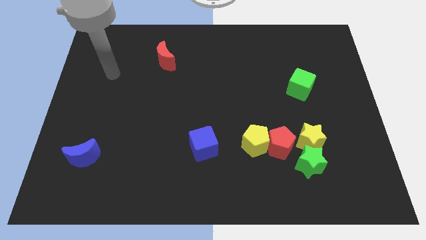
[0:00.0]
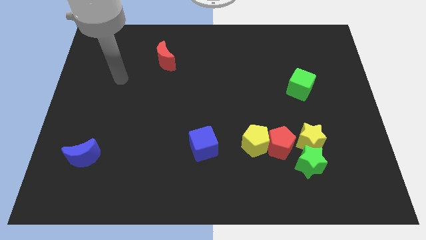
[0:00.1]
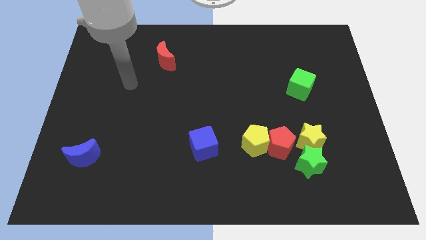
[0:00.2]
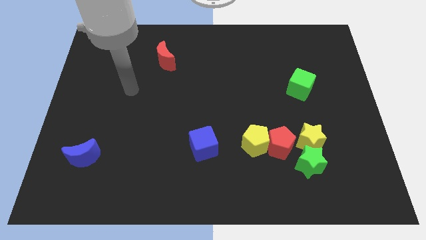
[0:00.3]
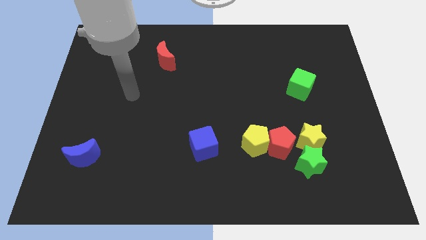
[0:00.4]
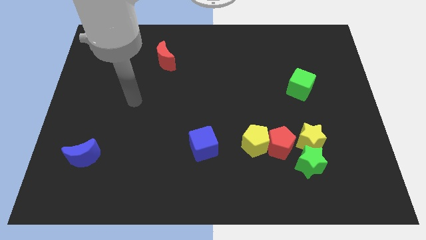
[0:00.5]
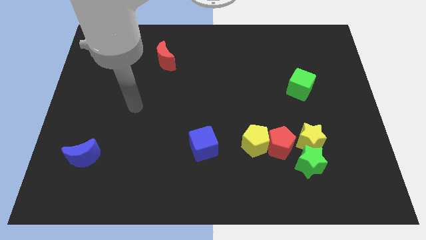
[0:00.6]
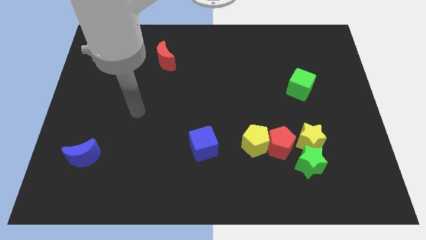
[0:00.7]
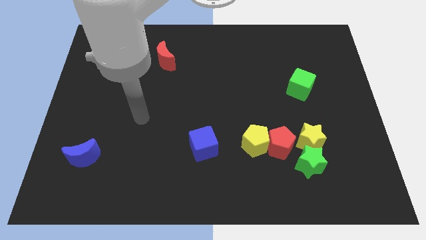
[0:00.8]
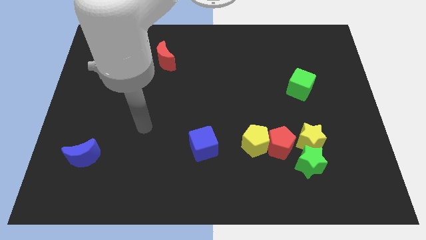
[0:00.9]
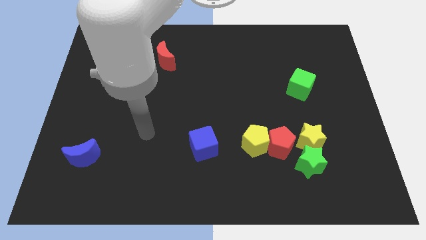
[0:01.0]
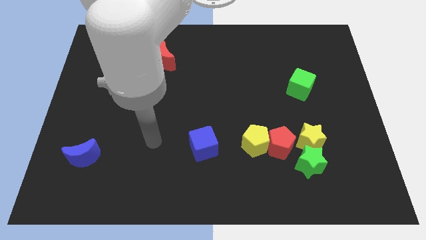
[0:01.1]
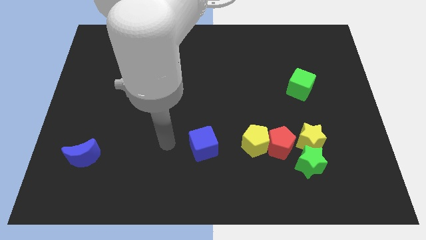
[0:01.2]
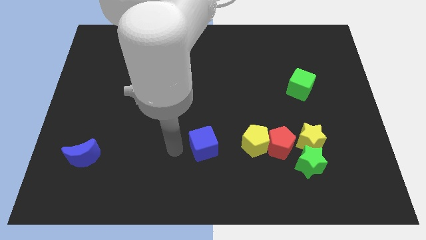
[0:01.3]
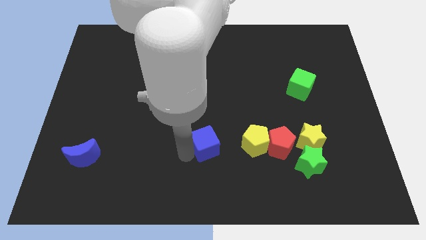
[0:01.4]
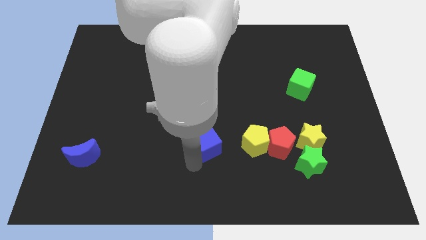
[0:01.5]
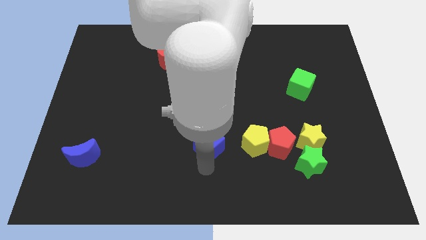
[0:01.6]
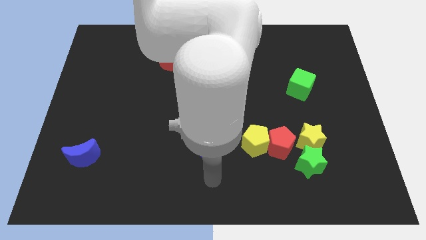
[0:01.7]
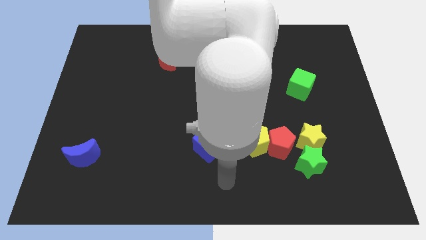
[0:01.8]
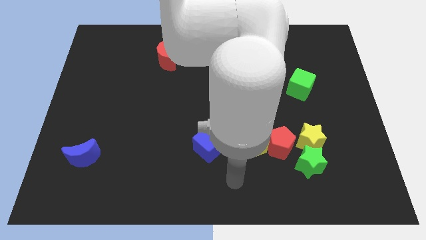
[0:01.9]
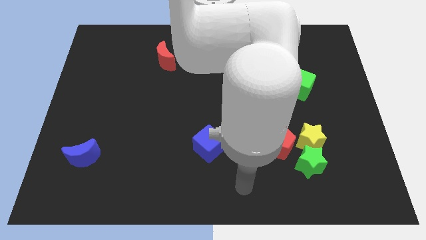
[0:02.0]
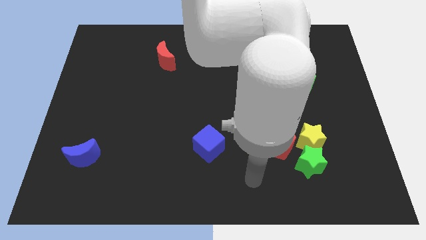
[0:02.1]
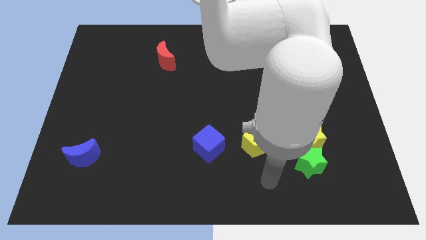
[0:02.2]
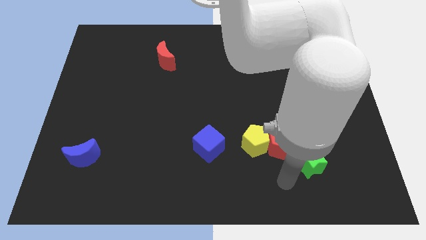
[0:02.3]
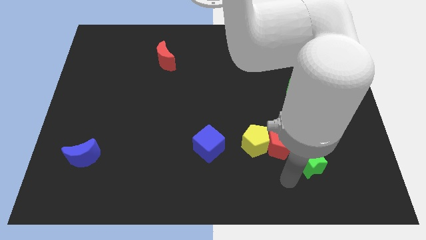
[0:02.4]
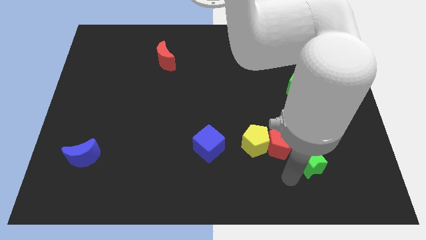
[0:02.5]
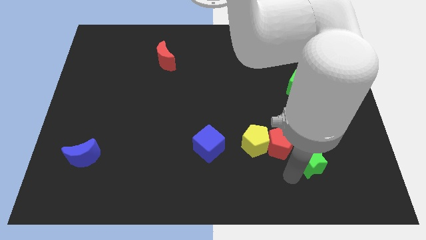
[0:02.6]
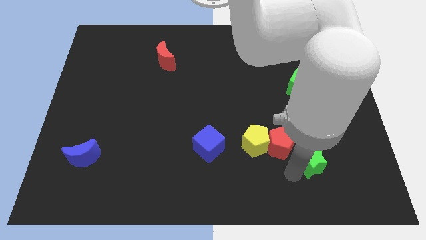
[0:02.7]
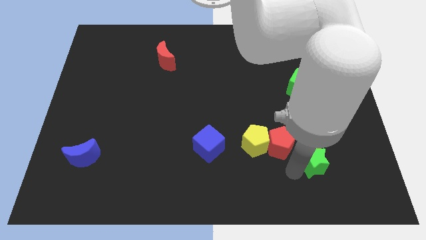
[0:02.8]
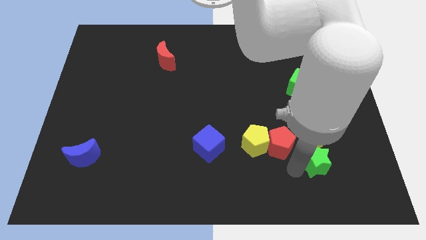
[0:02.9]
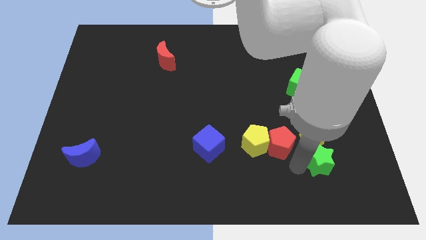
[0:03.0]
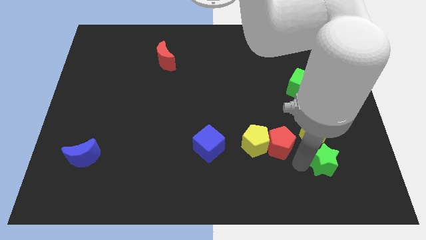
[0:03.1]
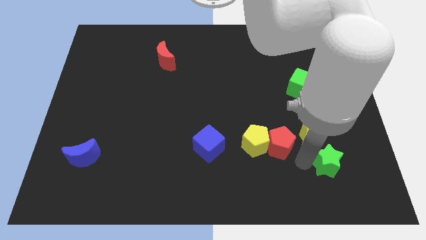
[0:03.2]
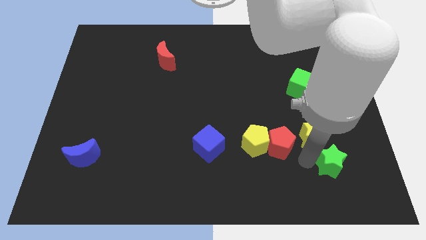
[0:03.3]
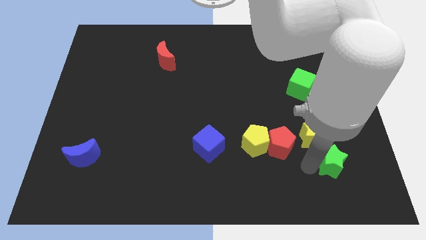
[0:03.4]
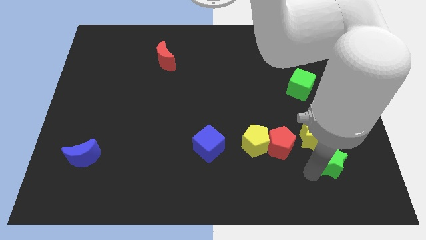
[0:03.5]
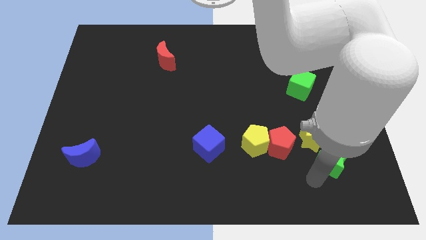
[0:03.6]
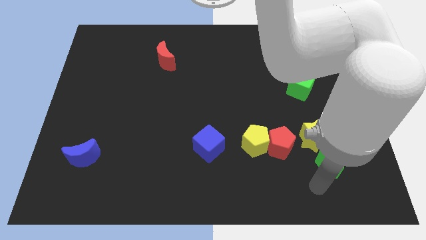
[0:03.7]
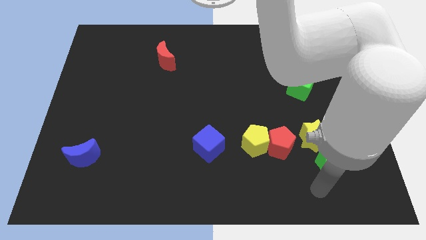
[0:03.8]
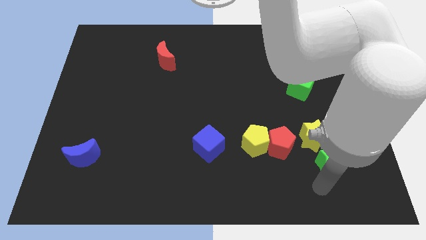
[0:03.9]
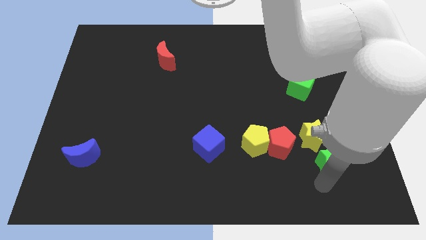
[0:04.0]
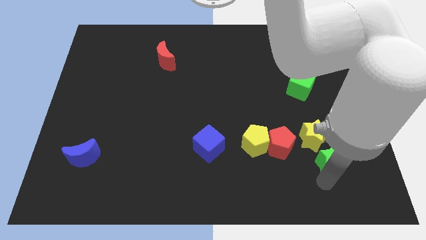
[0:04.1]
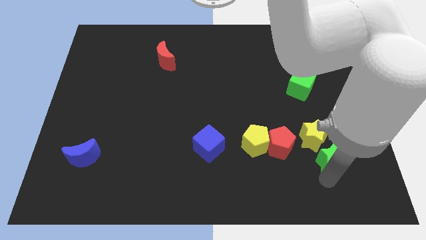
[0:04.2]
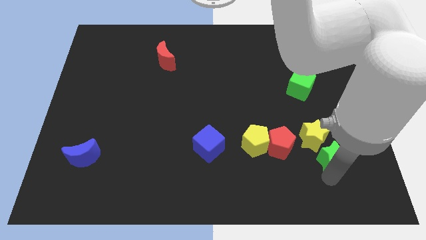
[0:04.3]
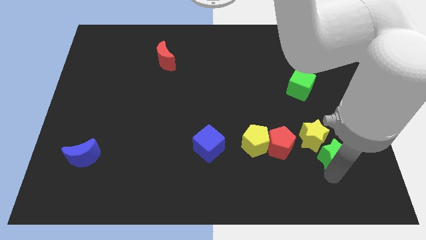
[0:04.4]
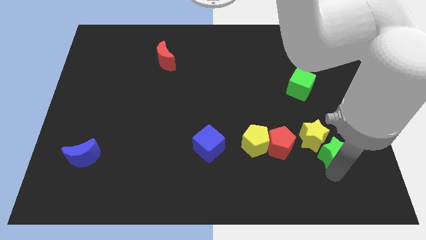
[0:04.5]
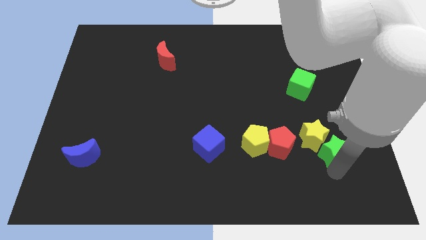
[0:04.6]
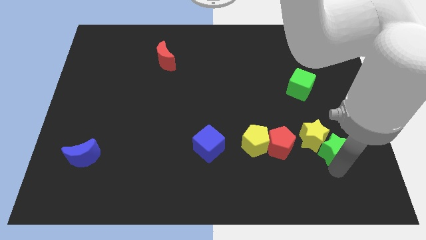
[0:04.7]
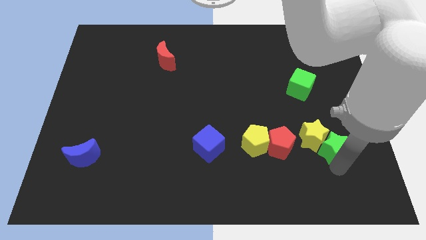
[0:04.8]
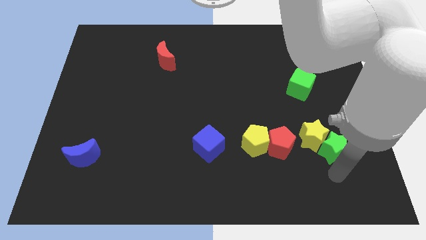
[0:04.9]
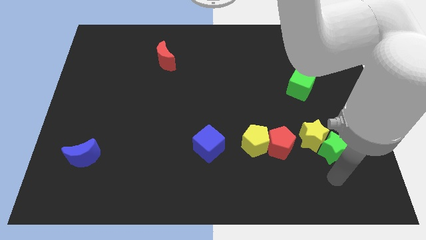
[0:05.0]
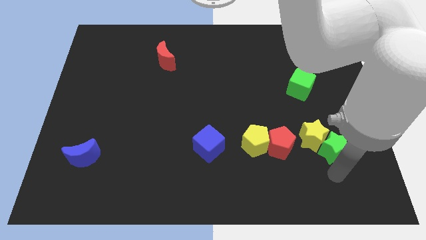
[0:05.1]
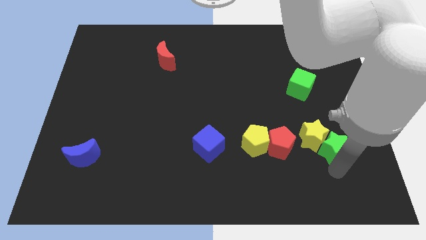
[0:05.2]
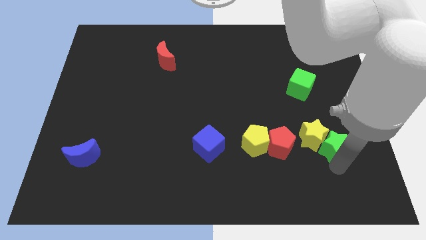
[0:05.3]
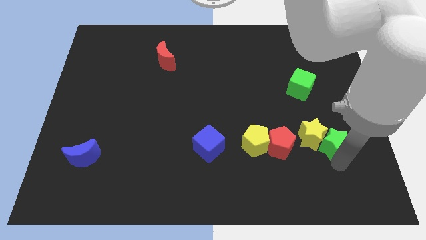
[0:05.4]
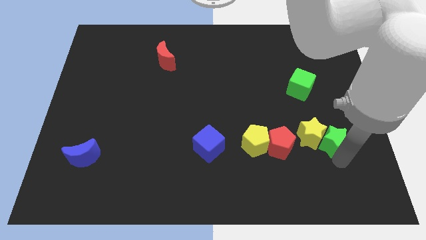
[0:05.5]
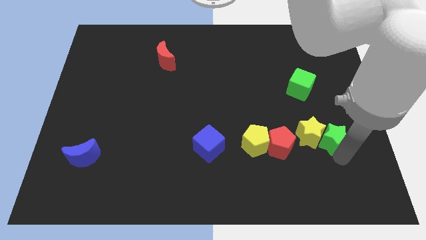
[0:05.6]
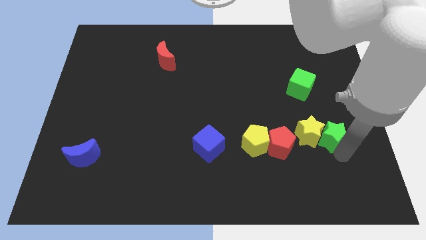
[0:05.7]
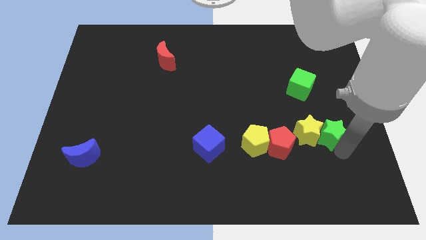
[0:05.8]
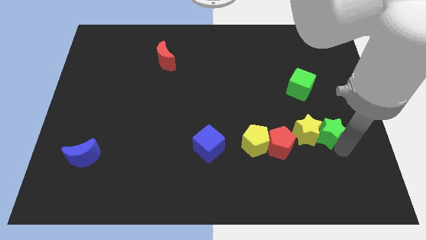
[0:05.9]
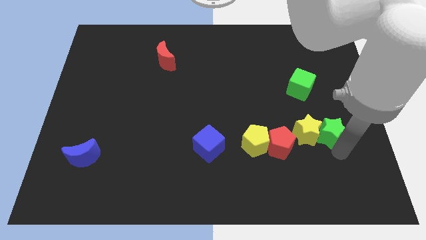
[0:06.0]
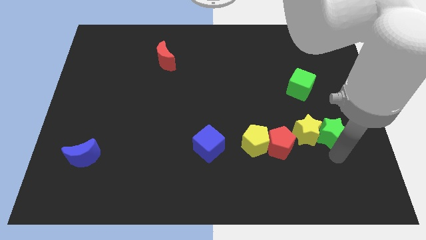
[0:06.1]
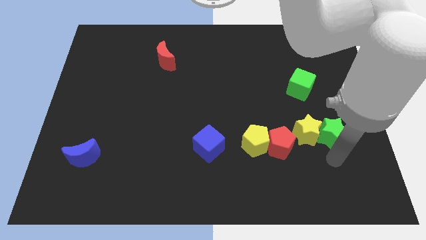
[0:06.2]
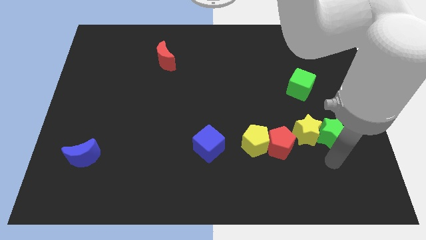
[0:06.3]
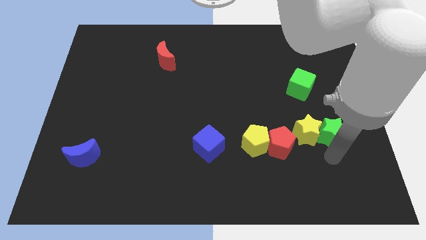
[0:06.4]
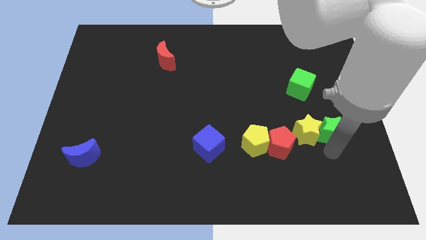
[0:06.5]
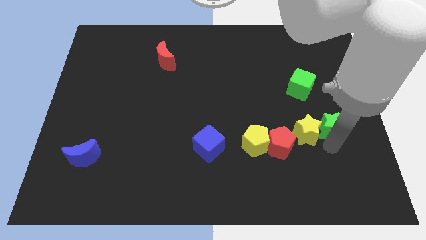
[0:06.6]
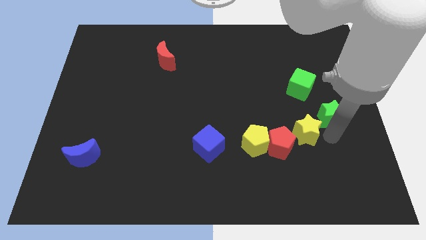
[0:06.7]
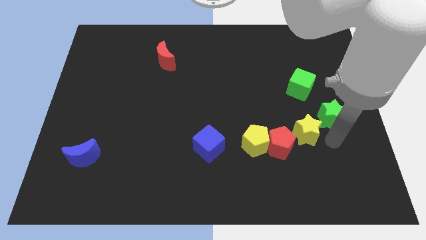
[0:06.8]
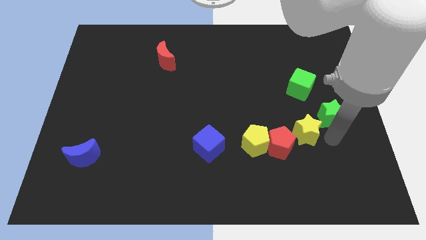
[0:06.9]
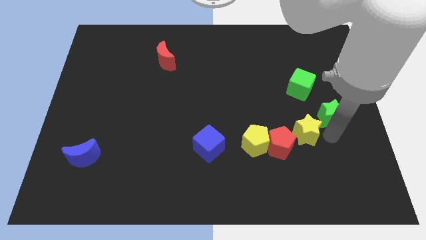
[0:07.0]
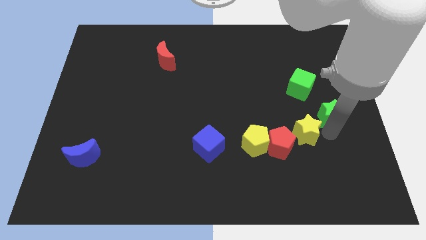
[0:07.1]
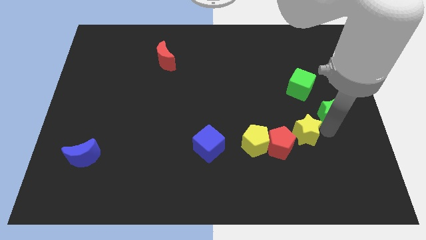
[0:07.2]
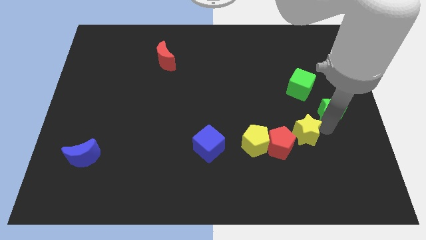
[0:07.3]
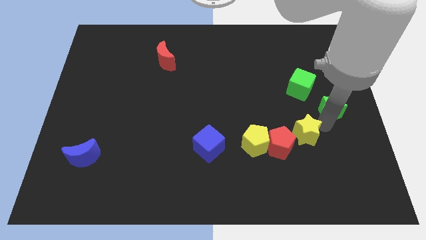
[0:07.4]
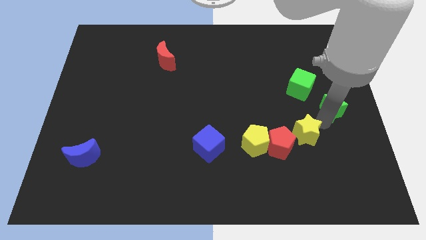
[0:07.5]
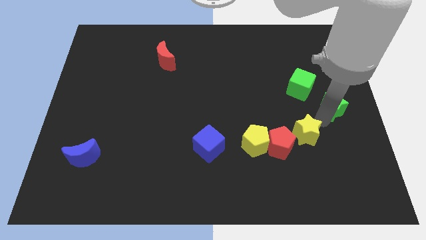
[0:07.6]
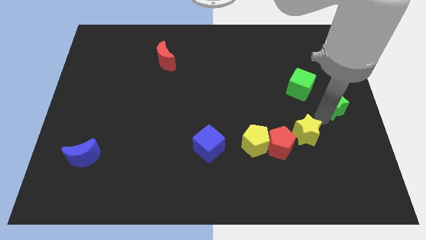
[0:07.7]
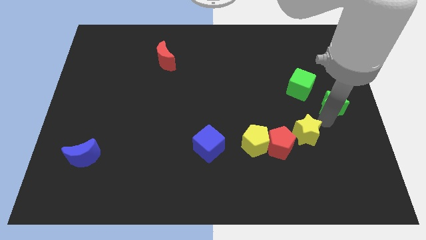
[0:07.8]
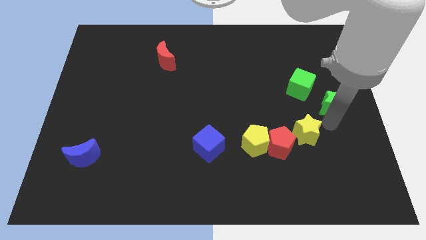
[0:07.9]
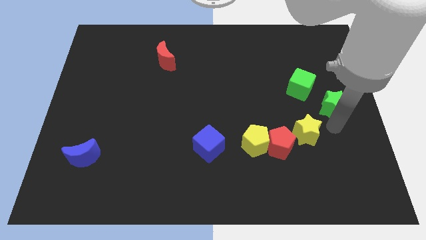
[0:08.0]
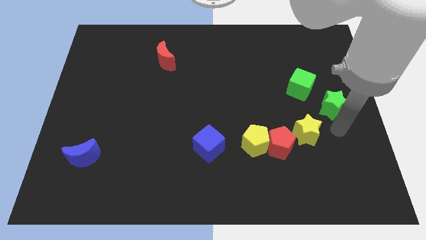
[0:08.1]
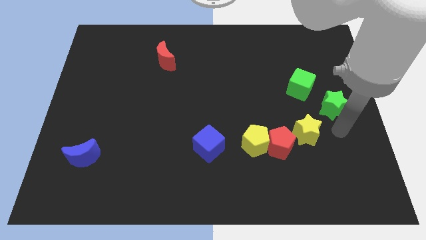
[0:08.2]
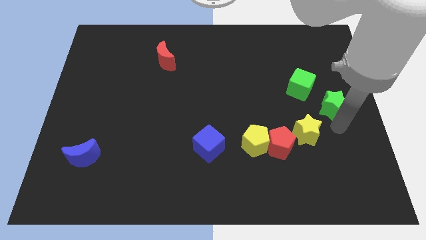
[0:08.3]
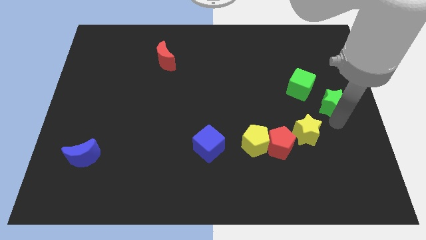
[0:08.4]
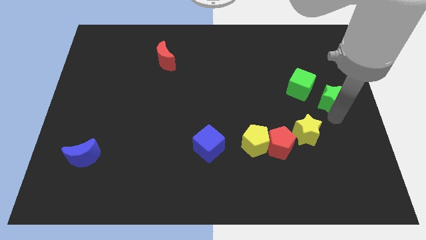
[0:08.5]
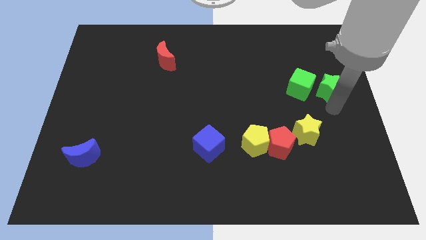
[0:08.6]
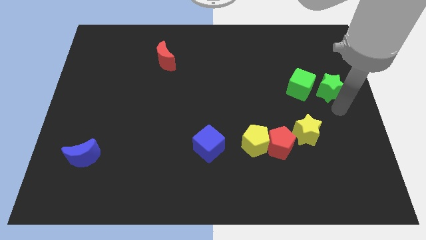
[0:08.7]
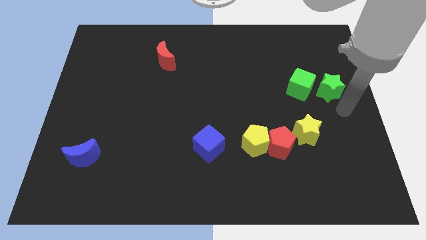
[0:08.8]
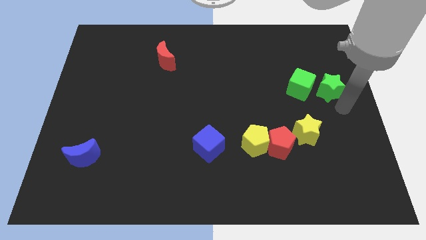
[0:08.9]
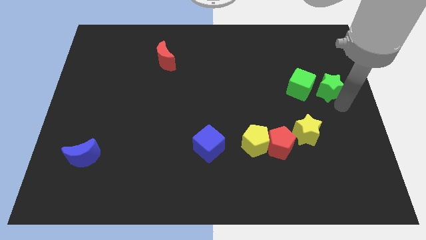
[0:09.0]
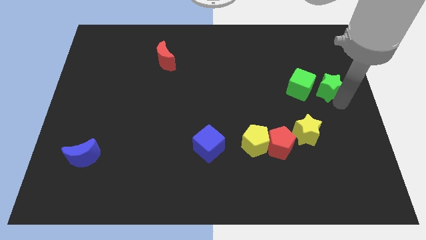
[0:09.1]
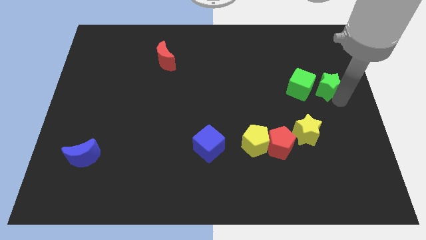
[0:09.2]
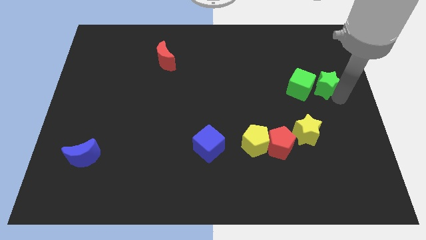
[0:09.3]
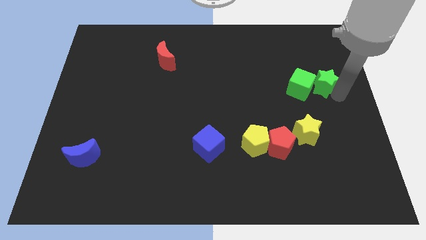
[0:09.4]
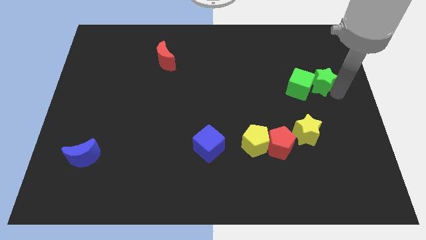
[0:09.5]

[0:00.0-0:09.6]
slide the green star upwards
